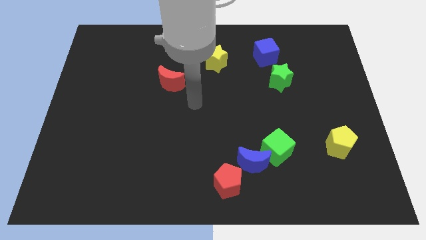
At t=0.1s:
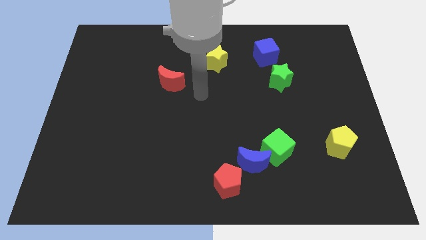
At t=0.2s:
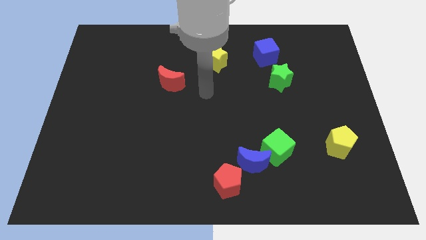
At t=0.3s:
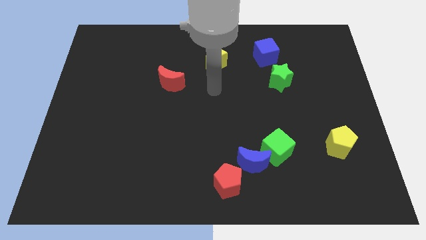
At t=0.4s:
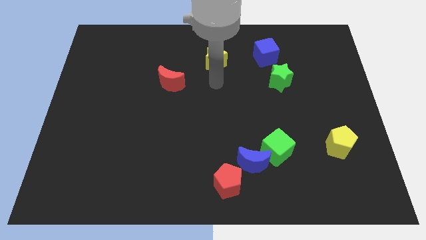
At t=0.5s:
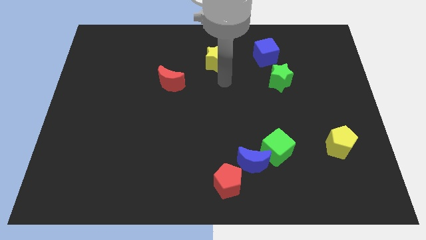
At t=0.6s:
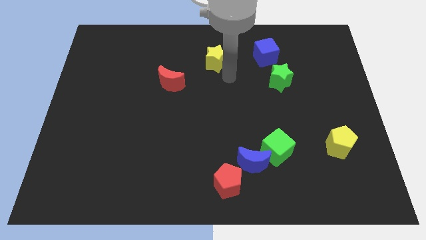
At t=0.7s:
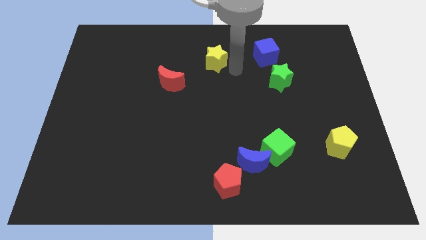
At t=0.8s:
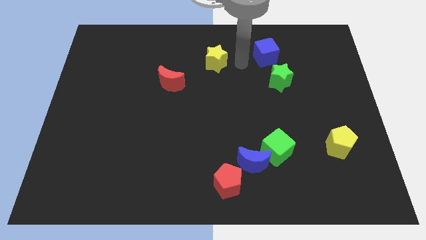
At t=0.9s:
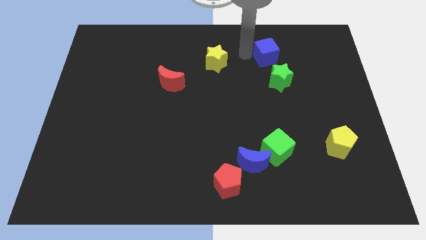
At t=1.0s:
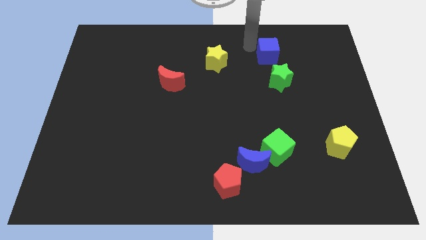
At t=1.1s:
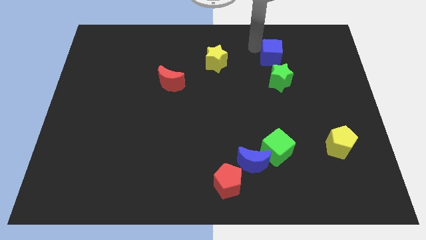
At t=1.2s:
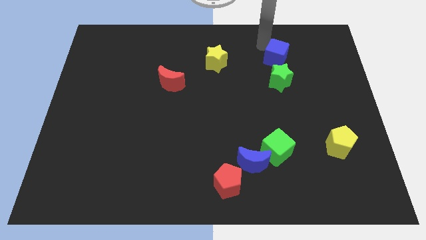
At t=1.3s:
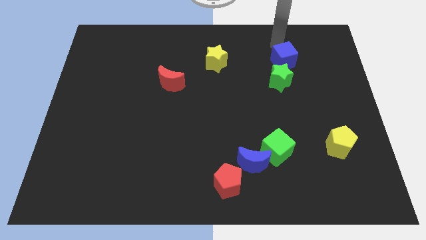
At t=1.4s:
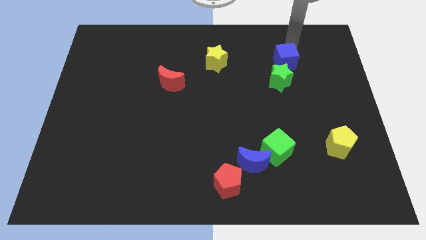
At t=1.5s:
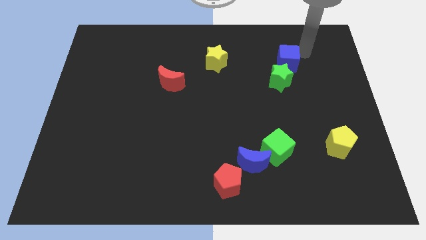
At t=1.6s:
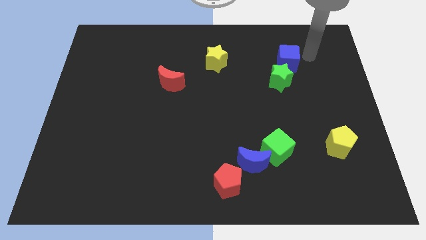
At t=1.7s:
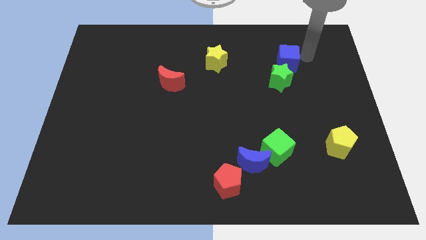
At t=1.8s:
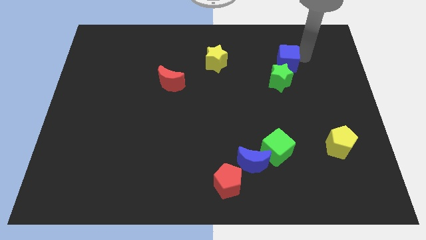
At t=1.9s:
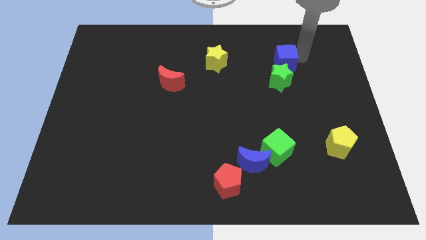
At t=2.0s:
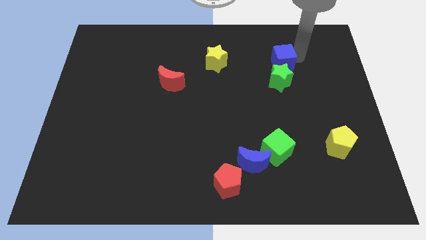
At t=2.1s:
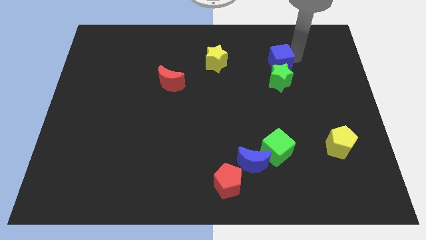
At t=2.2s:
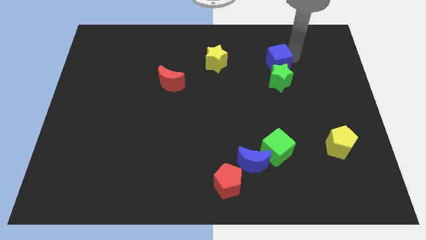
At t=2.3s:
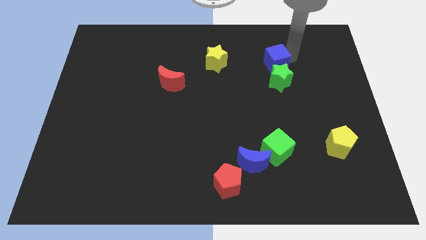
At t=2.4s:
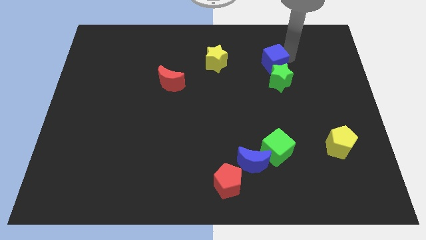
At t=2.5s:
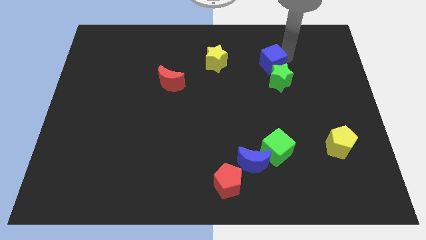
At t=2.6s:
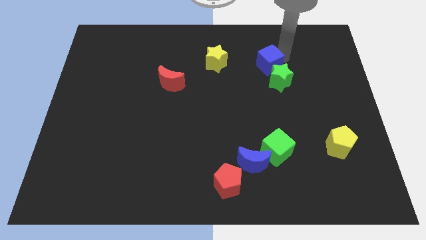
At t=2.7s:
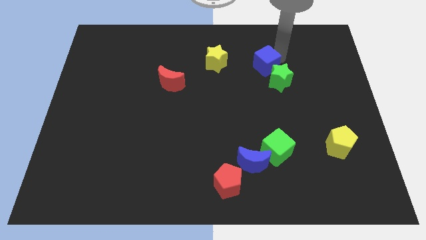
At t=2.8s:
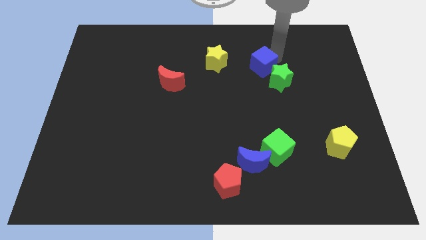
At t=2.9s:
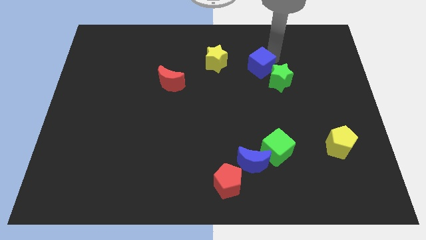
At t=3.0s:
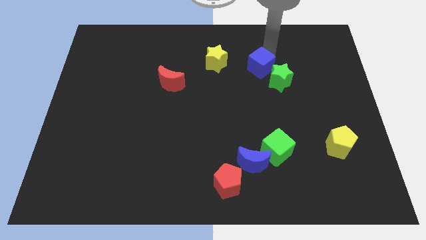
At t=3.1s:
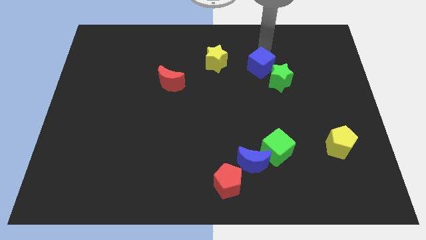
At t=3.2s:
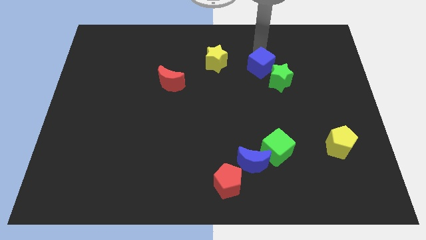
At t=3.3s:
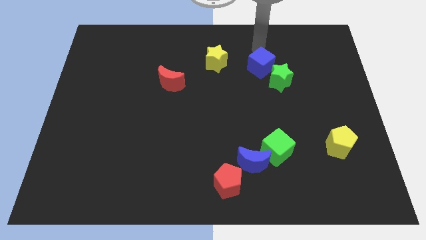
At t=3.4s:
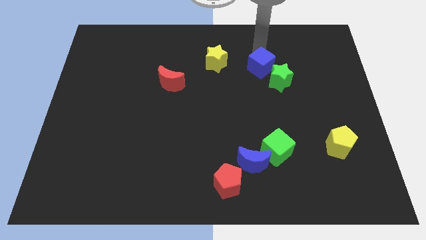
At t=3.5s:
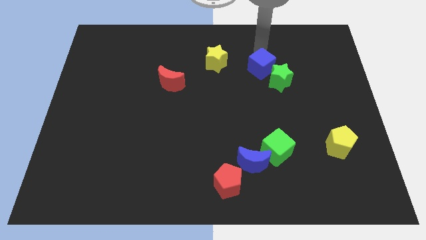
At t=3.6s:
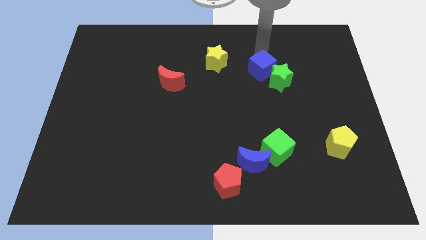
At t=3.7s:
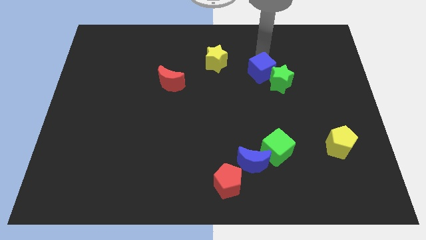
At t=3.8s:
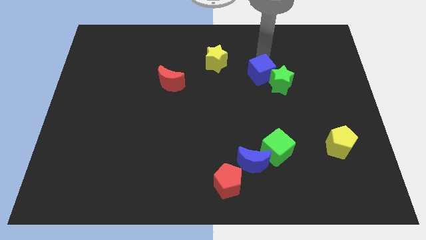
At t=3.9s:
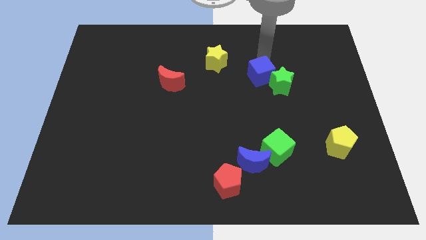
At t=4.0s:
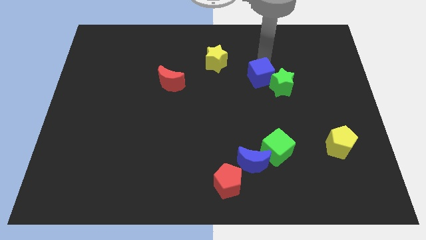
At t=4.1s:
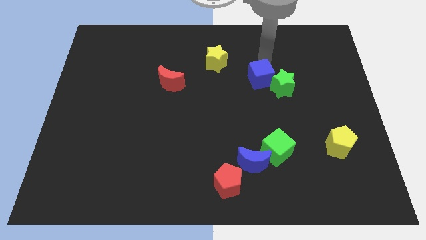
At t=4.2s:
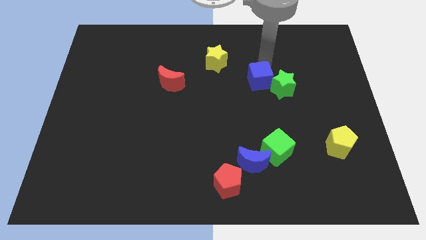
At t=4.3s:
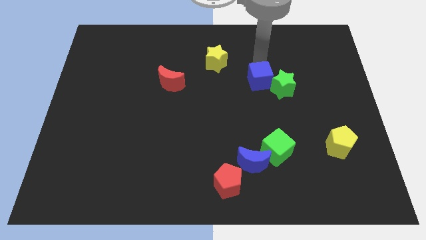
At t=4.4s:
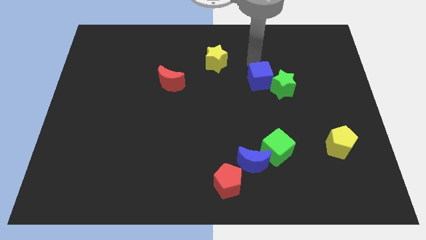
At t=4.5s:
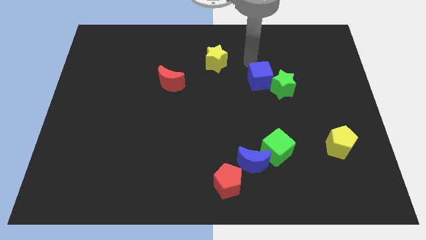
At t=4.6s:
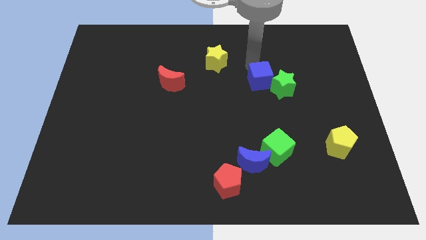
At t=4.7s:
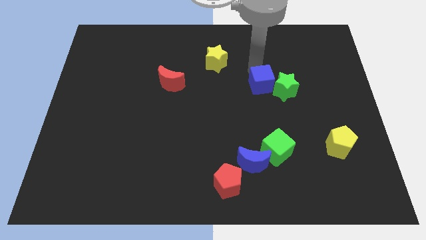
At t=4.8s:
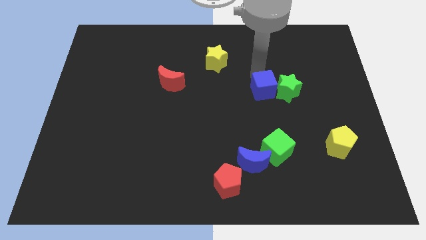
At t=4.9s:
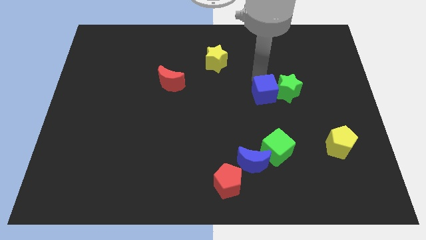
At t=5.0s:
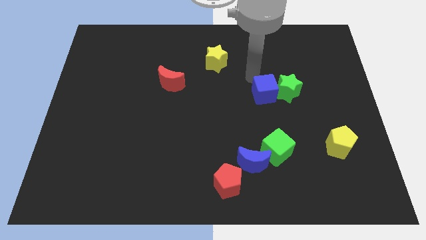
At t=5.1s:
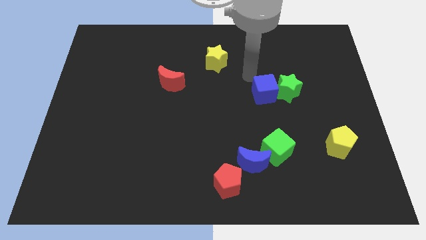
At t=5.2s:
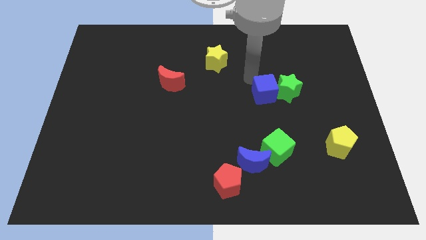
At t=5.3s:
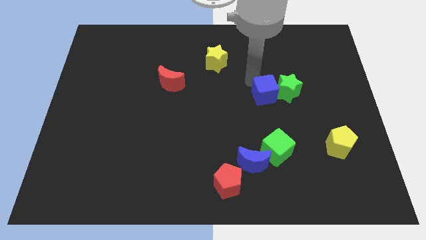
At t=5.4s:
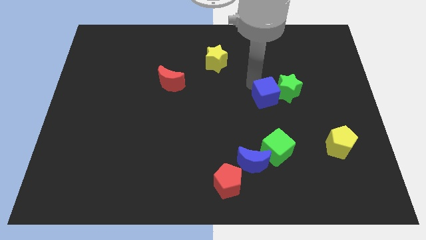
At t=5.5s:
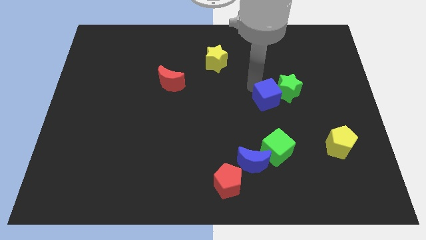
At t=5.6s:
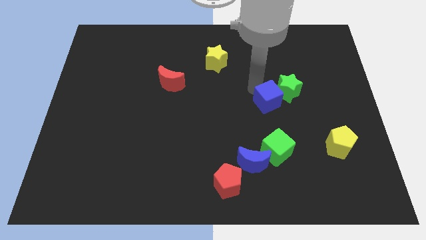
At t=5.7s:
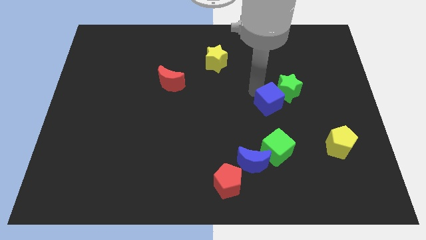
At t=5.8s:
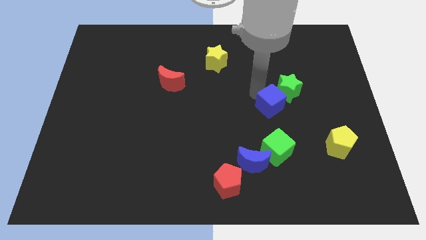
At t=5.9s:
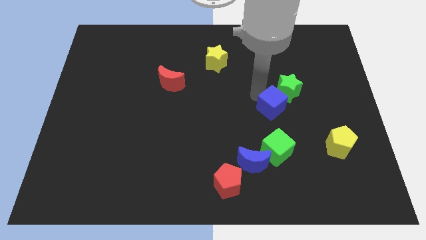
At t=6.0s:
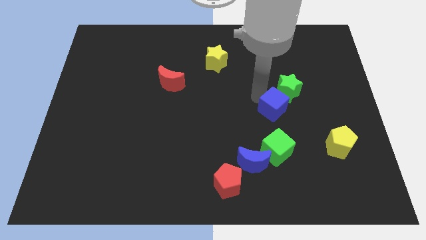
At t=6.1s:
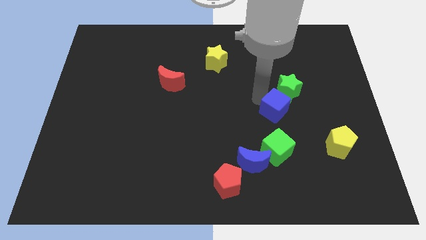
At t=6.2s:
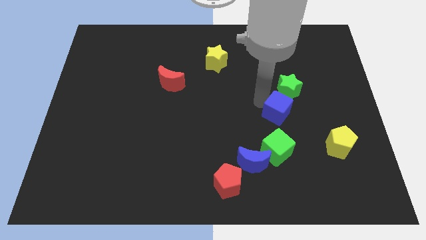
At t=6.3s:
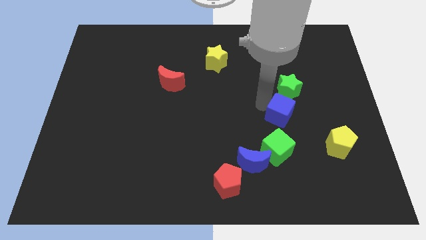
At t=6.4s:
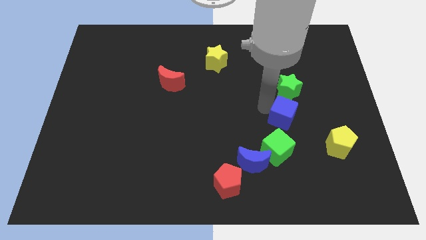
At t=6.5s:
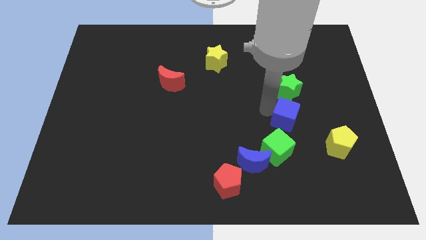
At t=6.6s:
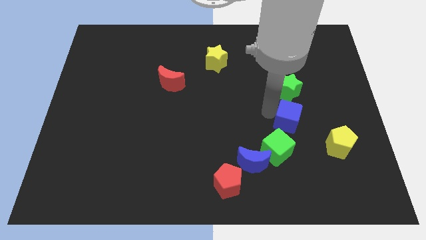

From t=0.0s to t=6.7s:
push the blue cube to the top left side of the yellow pentagon
